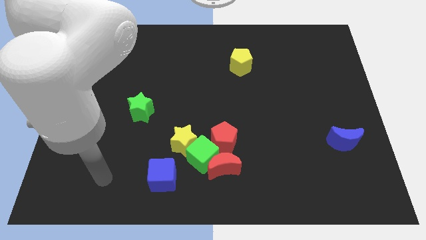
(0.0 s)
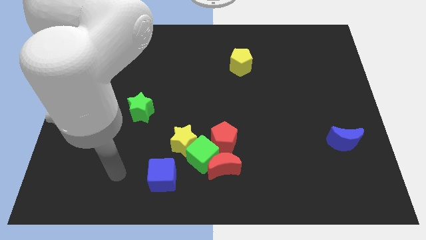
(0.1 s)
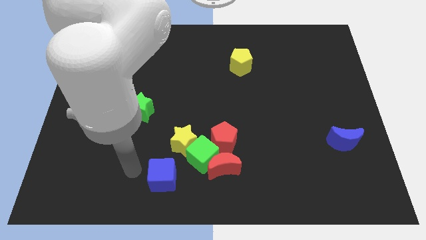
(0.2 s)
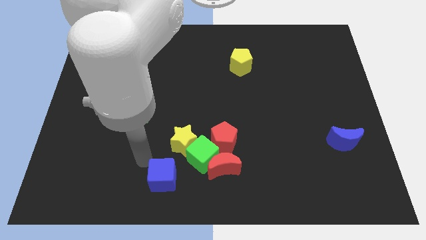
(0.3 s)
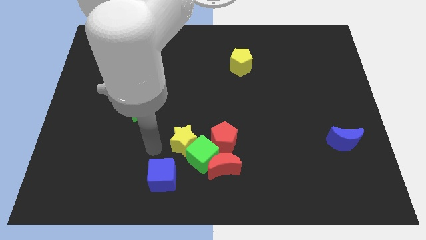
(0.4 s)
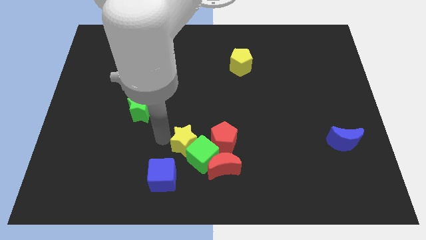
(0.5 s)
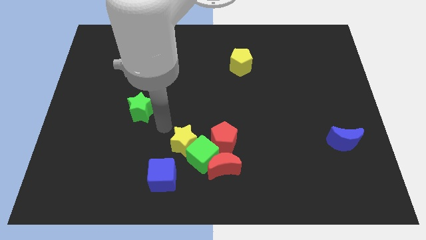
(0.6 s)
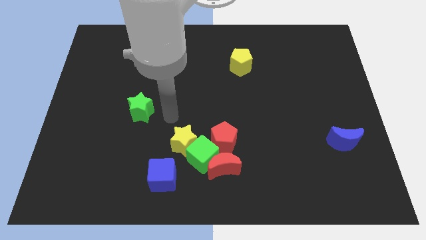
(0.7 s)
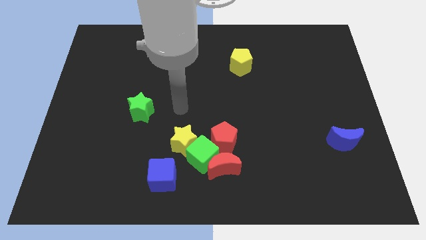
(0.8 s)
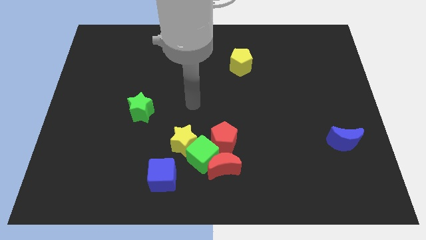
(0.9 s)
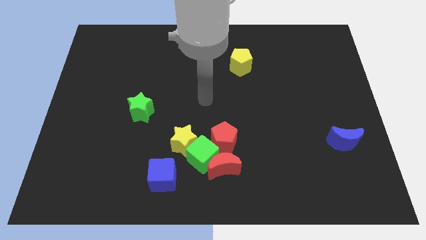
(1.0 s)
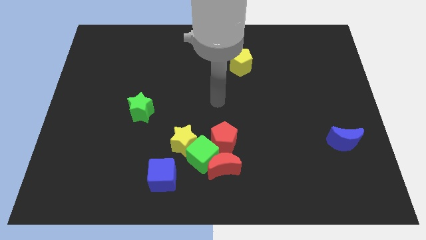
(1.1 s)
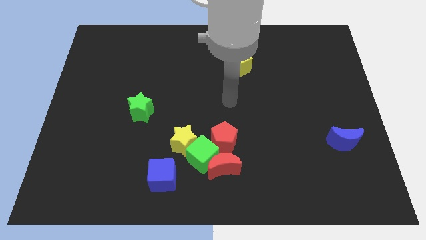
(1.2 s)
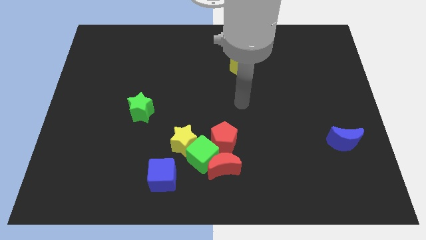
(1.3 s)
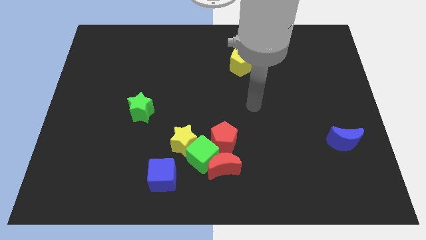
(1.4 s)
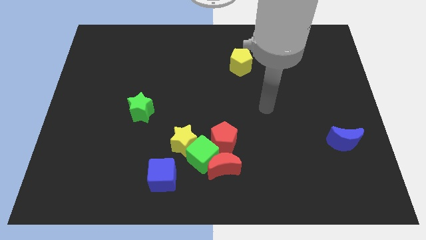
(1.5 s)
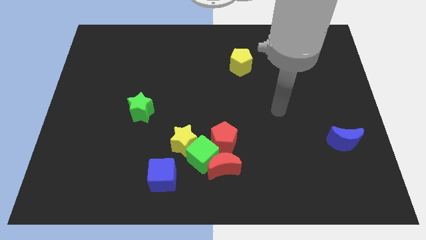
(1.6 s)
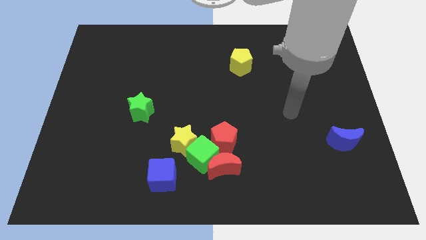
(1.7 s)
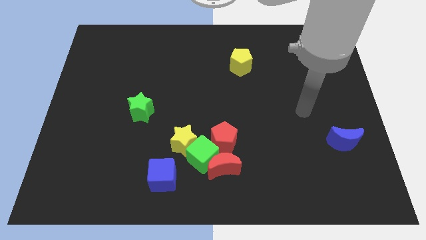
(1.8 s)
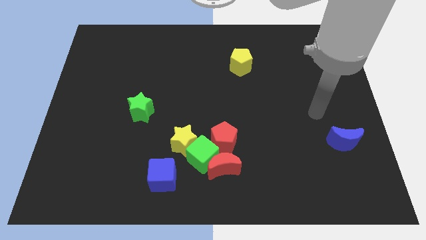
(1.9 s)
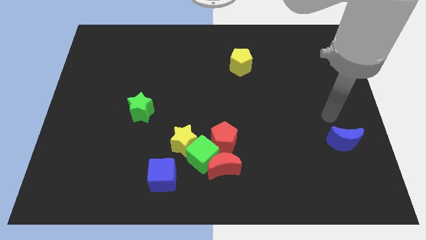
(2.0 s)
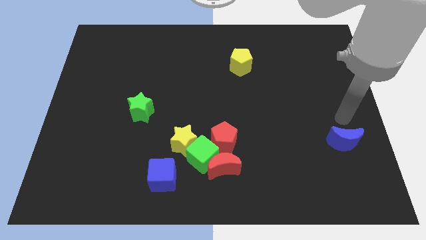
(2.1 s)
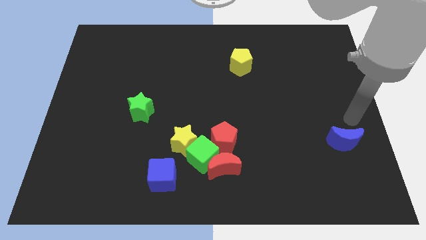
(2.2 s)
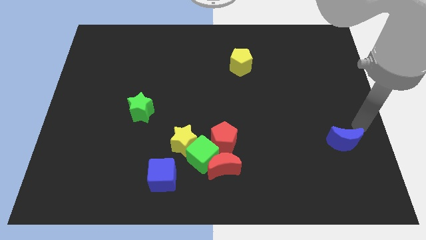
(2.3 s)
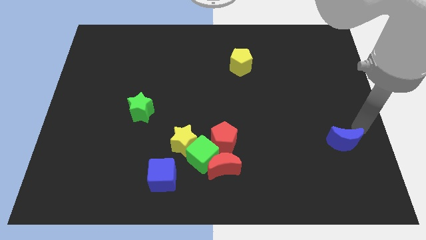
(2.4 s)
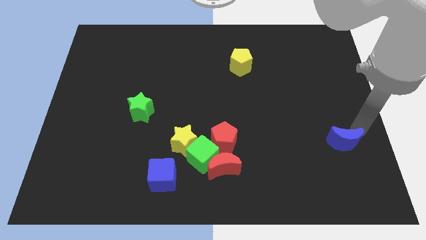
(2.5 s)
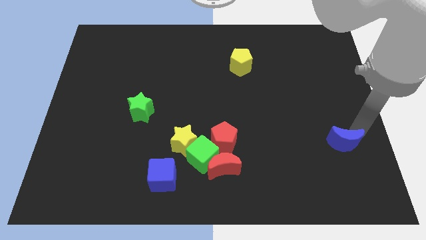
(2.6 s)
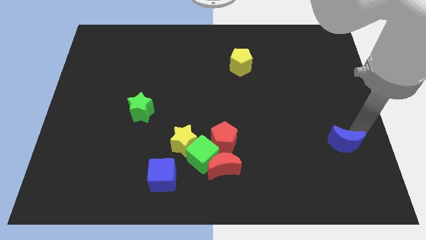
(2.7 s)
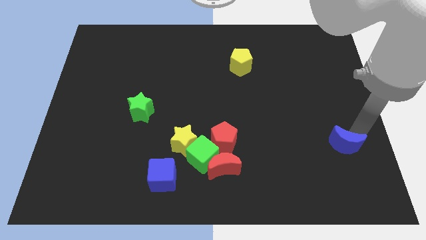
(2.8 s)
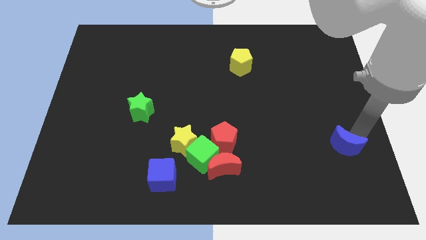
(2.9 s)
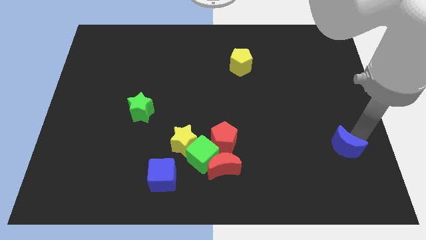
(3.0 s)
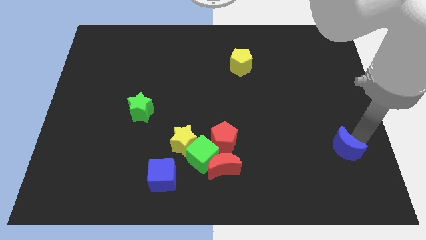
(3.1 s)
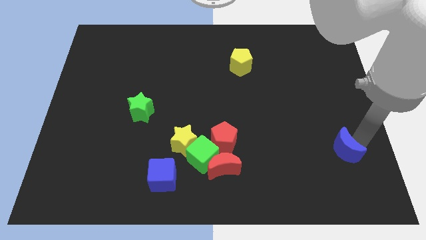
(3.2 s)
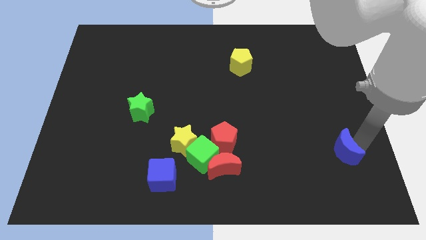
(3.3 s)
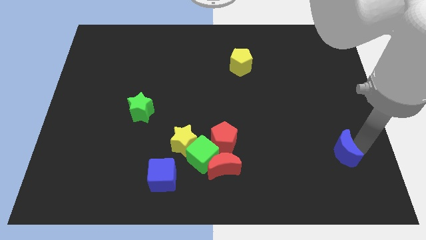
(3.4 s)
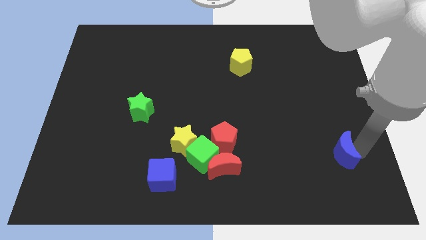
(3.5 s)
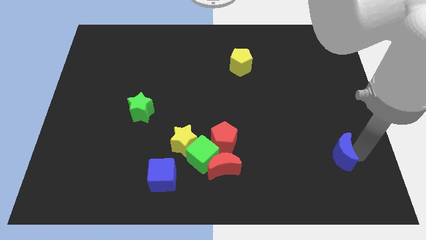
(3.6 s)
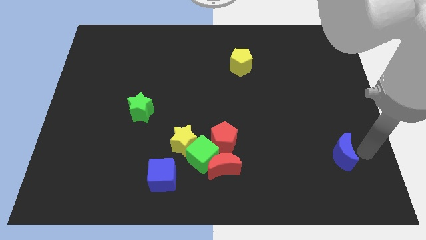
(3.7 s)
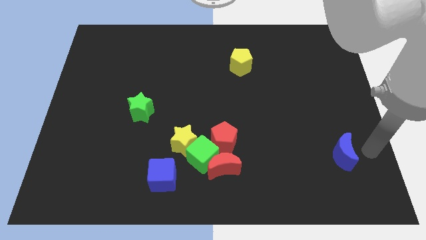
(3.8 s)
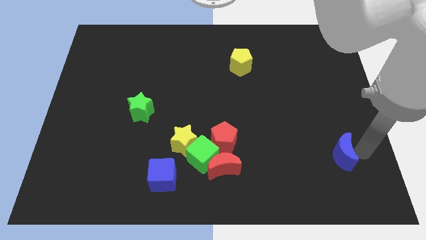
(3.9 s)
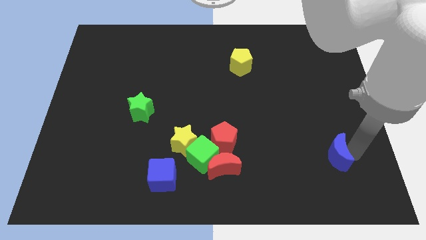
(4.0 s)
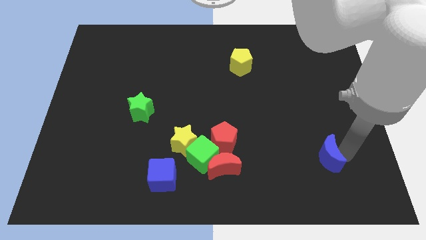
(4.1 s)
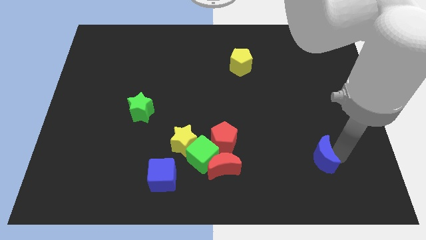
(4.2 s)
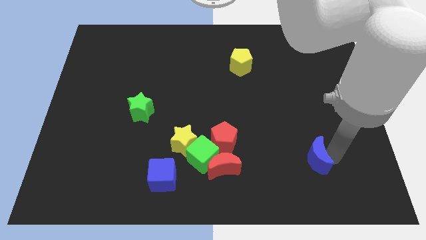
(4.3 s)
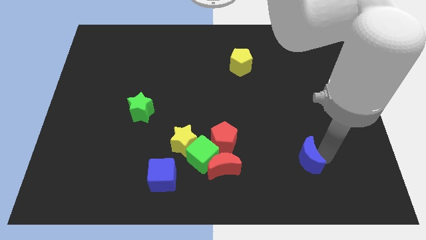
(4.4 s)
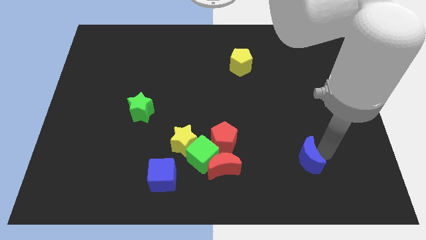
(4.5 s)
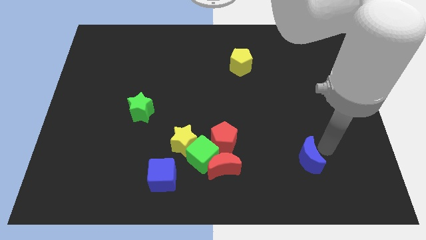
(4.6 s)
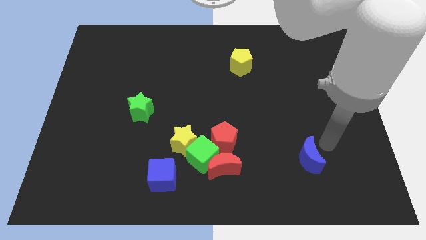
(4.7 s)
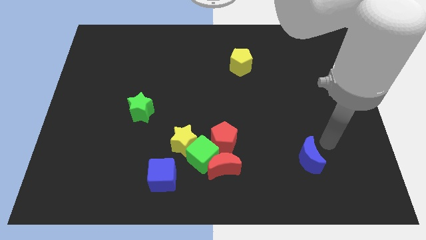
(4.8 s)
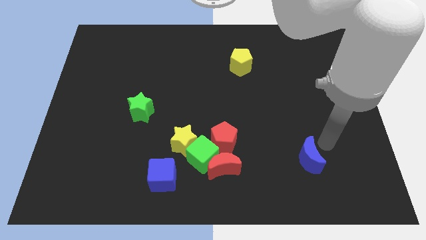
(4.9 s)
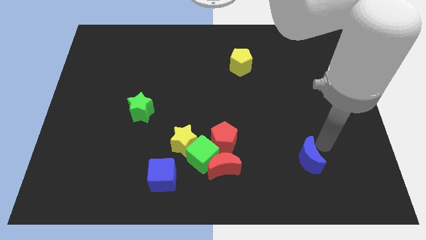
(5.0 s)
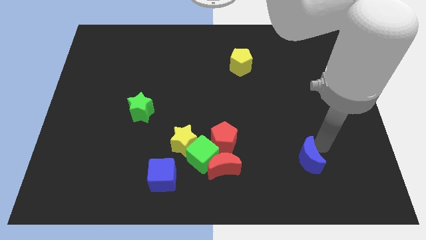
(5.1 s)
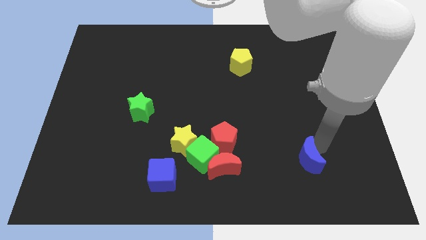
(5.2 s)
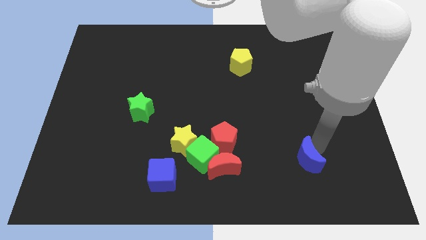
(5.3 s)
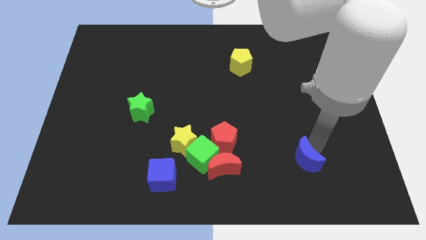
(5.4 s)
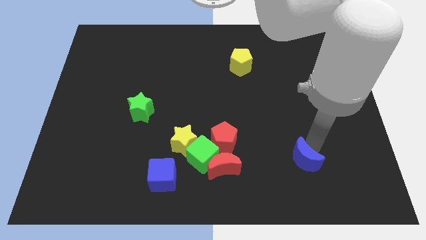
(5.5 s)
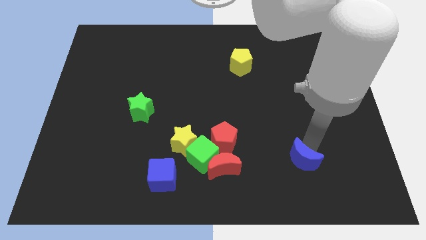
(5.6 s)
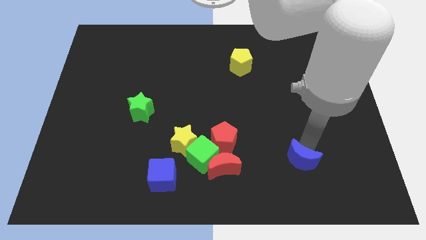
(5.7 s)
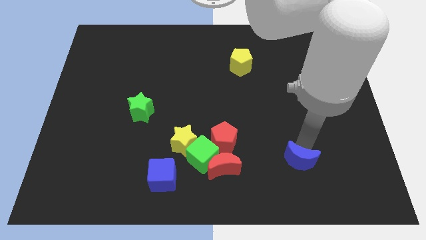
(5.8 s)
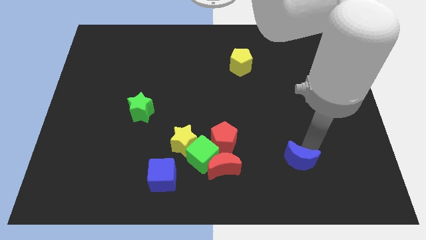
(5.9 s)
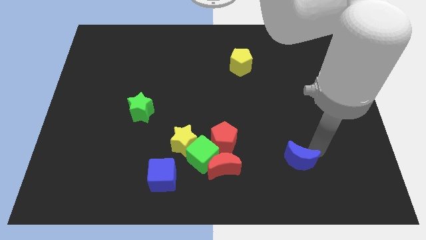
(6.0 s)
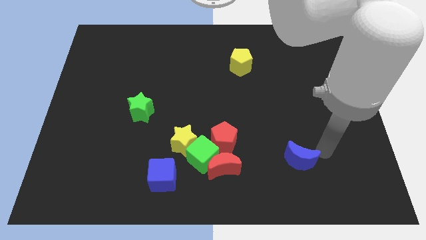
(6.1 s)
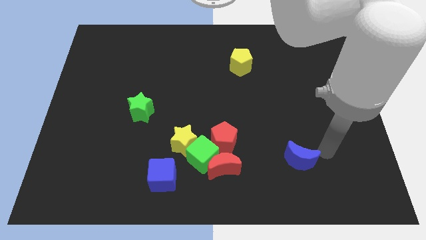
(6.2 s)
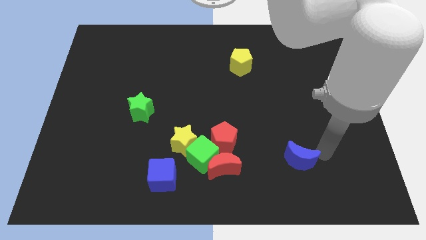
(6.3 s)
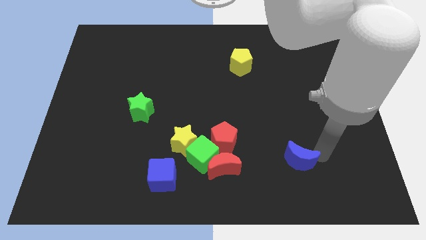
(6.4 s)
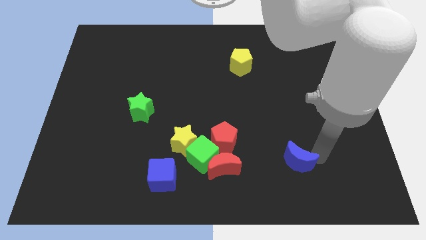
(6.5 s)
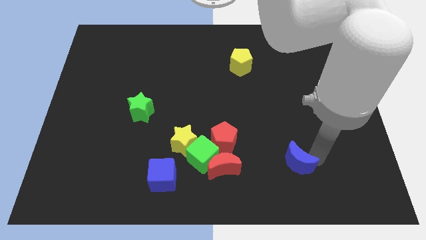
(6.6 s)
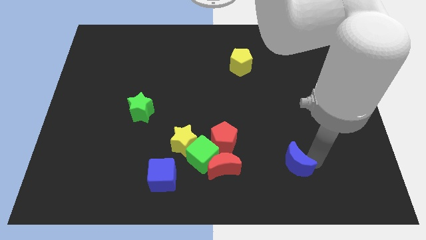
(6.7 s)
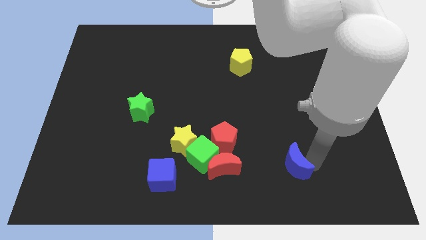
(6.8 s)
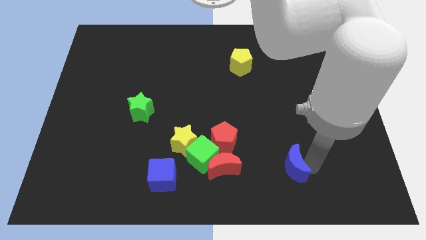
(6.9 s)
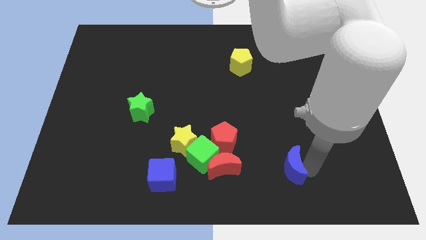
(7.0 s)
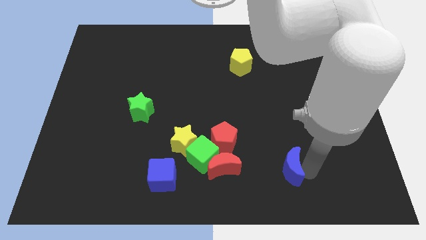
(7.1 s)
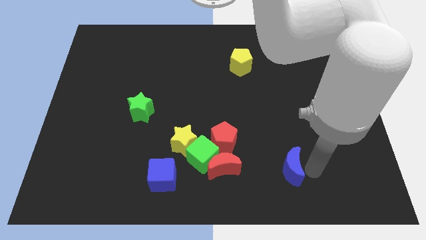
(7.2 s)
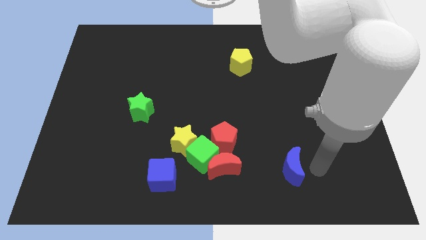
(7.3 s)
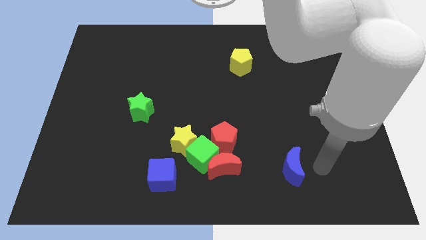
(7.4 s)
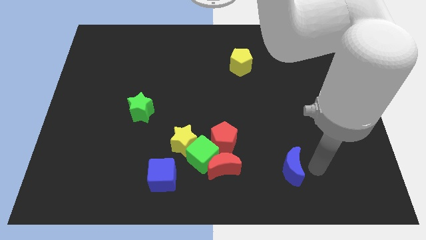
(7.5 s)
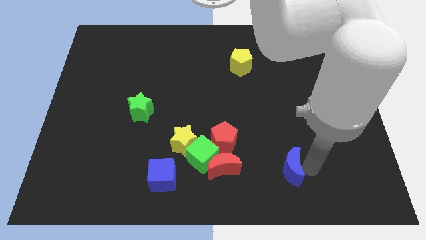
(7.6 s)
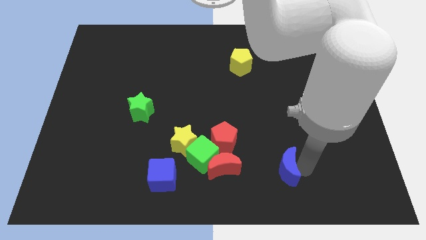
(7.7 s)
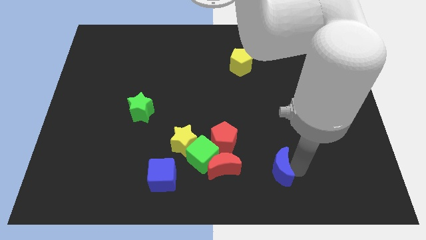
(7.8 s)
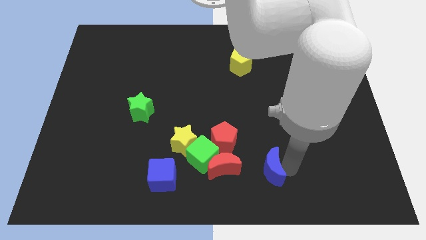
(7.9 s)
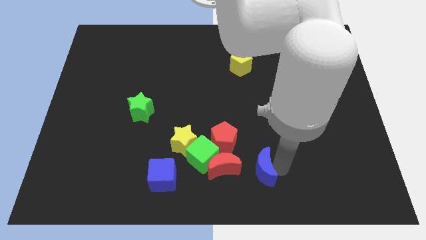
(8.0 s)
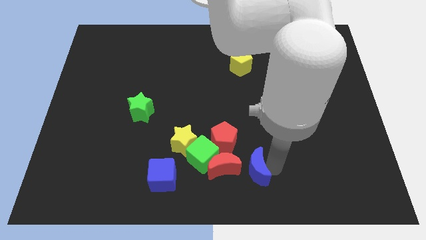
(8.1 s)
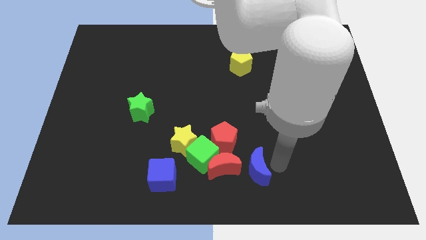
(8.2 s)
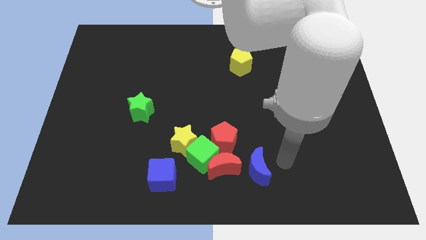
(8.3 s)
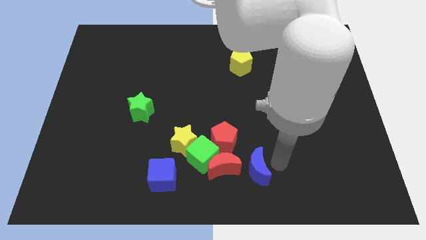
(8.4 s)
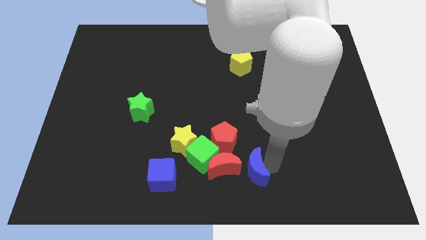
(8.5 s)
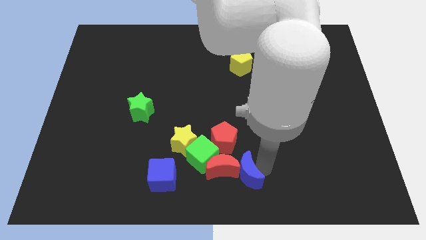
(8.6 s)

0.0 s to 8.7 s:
slide the blue moon to the bottom right side of the green cube
